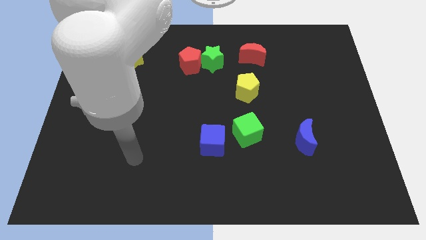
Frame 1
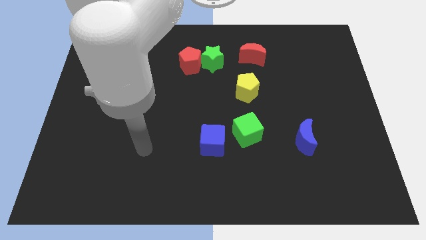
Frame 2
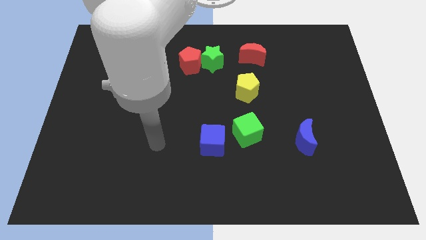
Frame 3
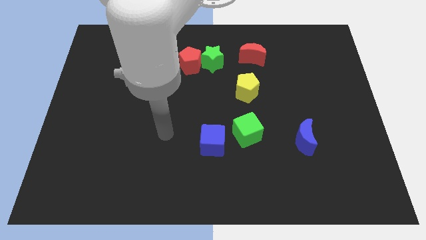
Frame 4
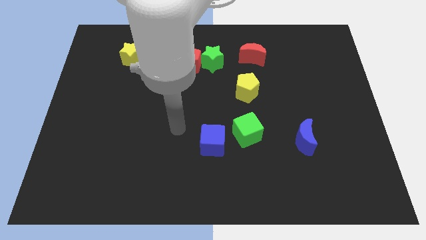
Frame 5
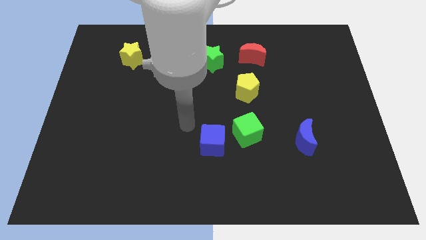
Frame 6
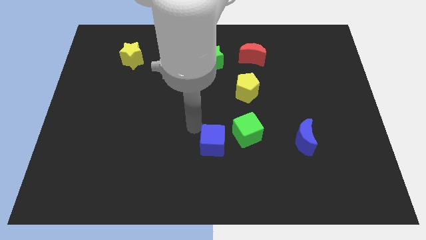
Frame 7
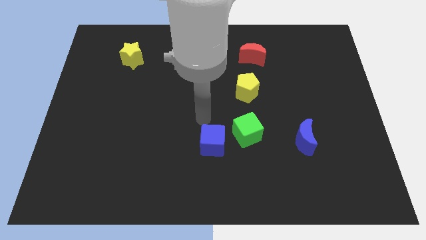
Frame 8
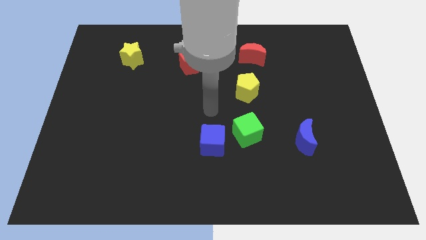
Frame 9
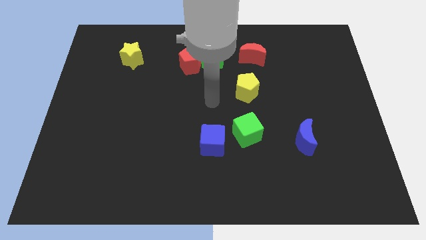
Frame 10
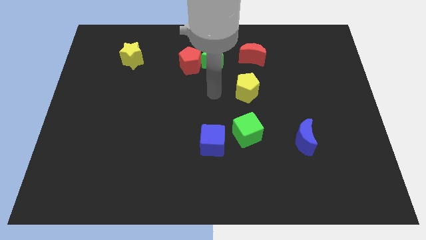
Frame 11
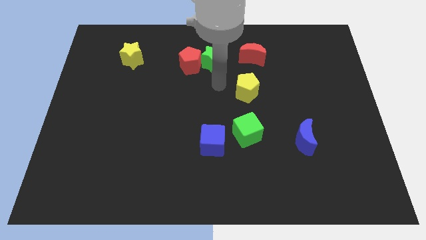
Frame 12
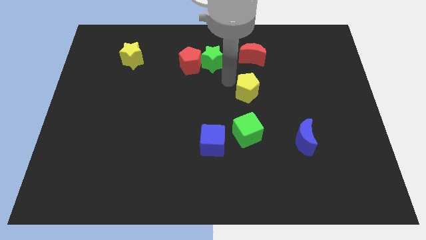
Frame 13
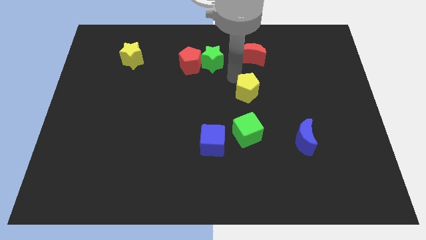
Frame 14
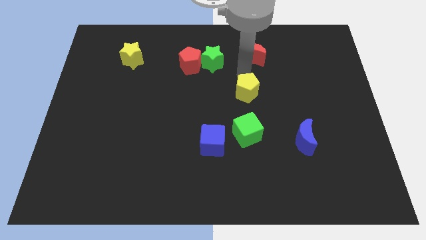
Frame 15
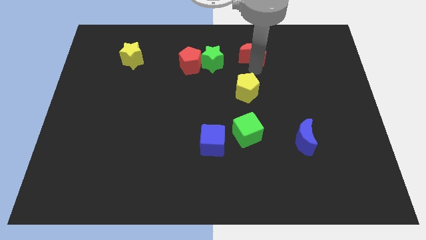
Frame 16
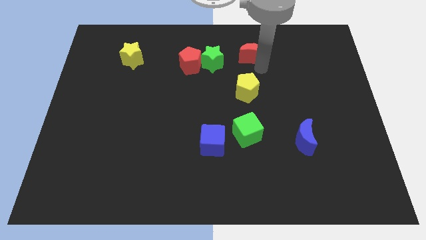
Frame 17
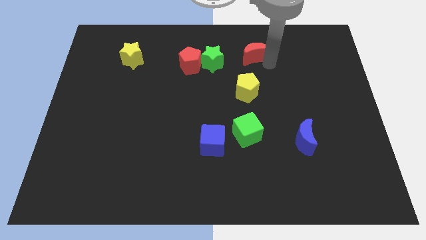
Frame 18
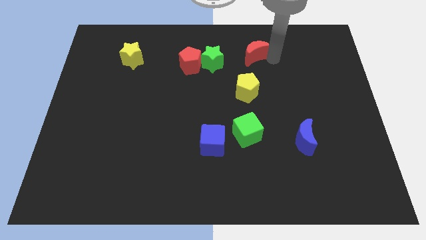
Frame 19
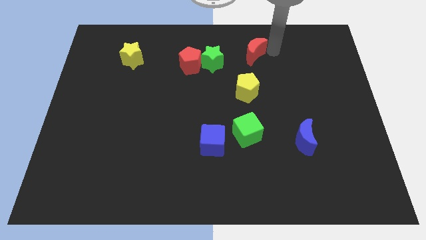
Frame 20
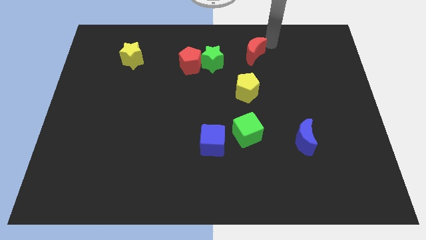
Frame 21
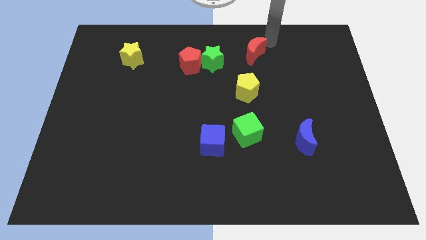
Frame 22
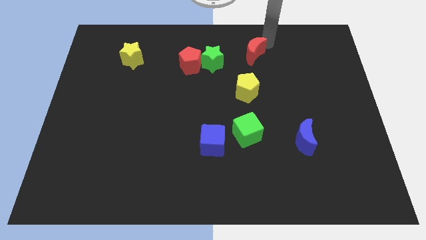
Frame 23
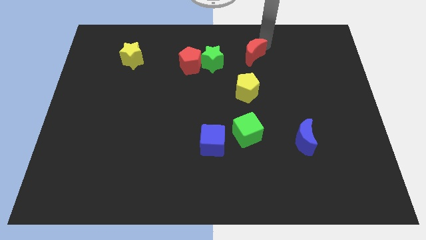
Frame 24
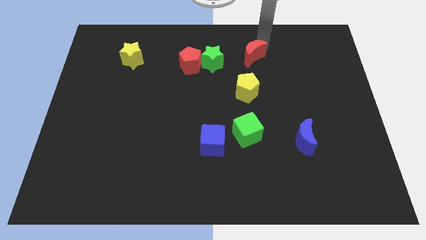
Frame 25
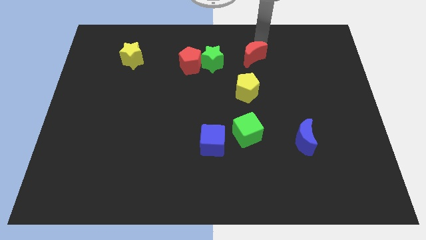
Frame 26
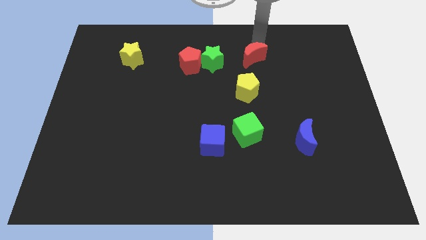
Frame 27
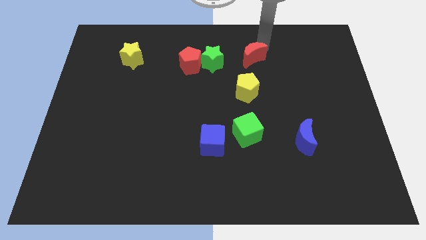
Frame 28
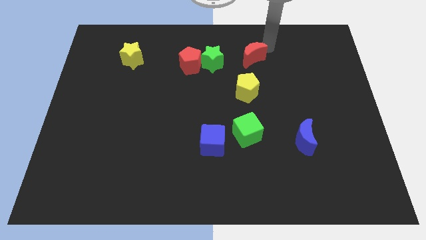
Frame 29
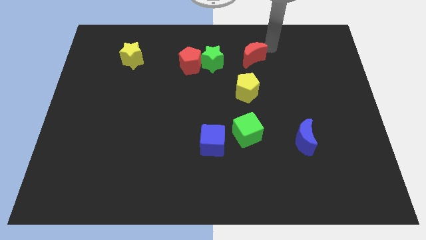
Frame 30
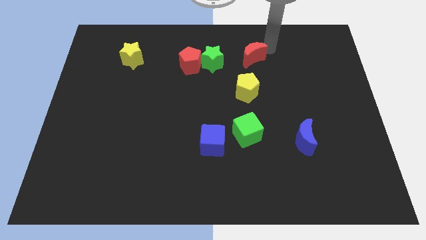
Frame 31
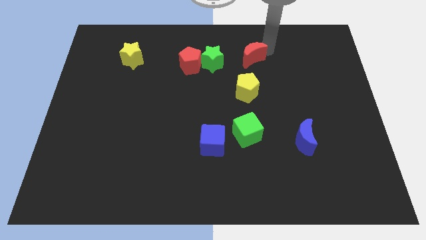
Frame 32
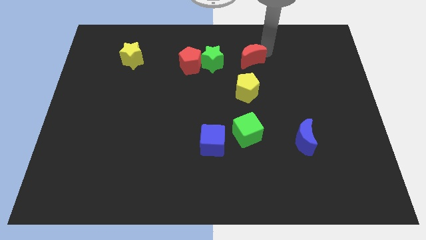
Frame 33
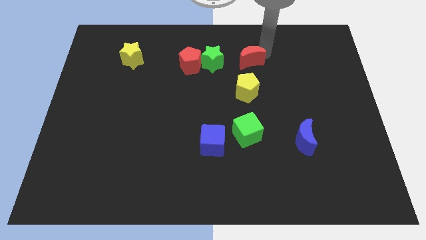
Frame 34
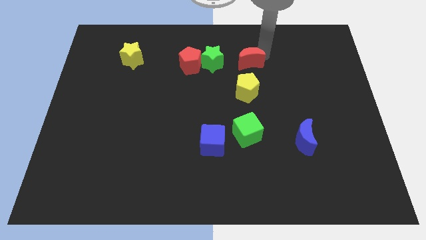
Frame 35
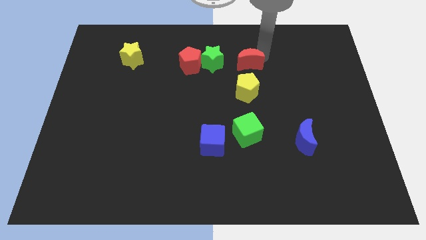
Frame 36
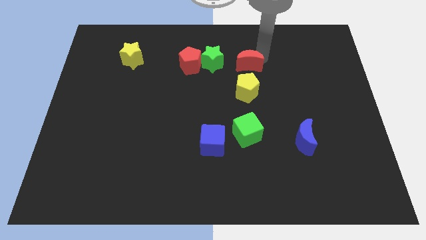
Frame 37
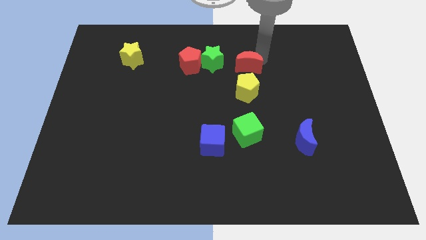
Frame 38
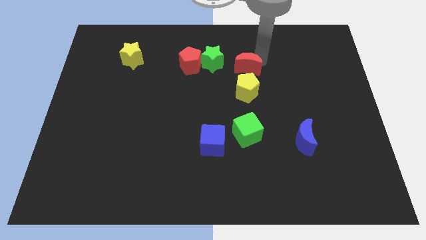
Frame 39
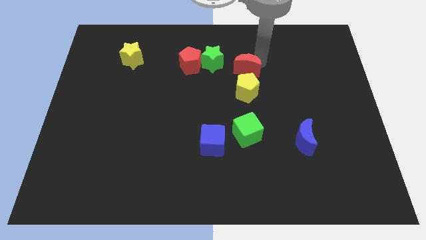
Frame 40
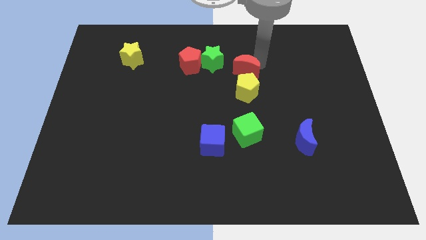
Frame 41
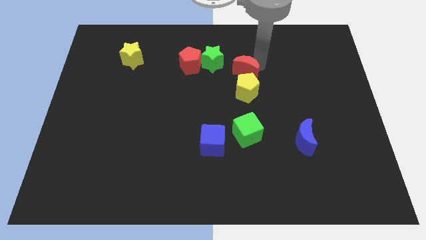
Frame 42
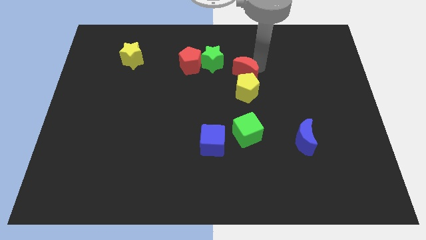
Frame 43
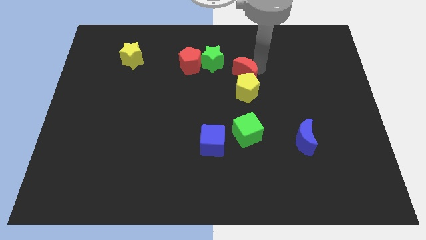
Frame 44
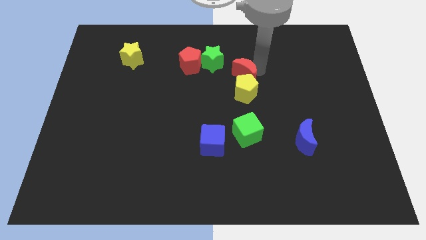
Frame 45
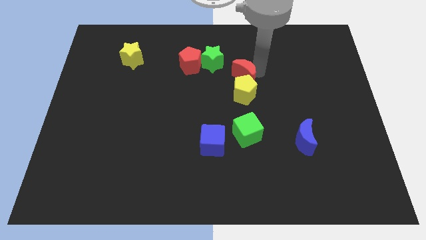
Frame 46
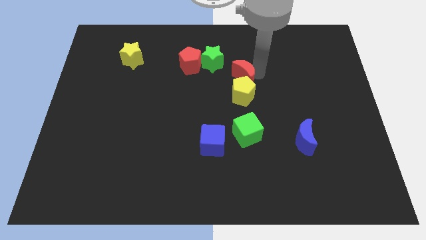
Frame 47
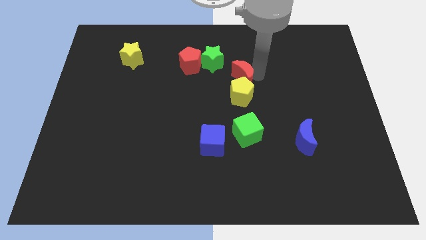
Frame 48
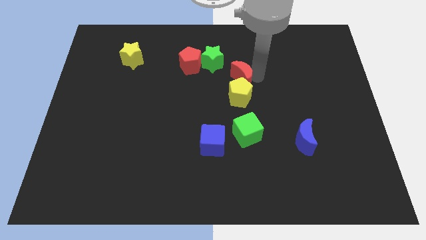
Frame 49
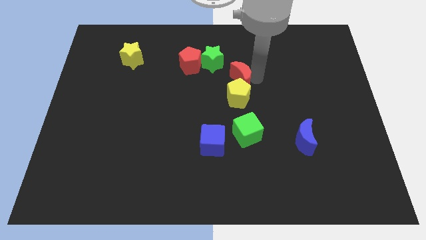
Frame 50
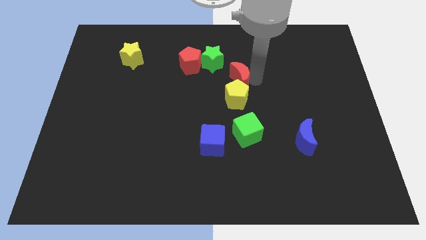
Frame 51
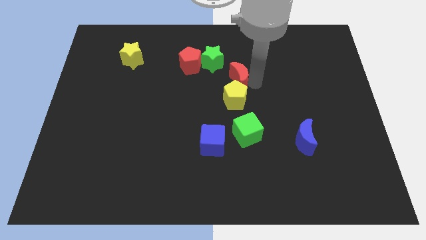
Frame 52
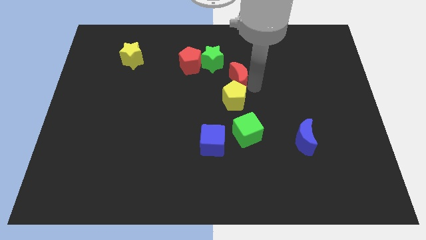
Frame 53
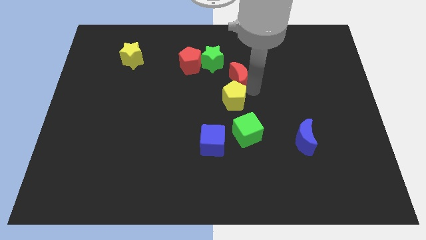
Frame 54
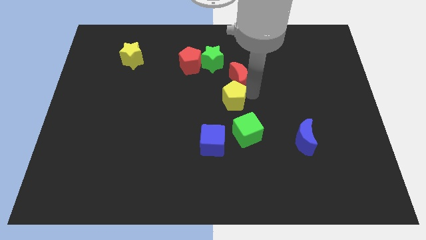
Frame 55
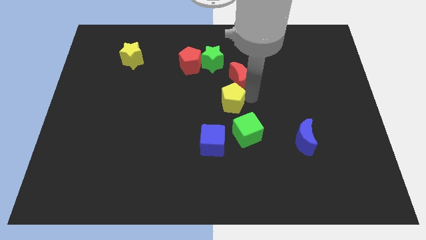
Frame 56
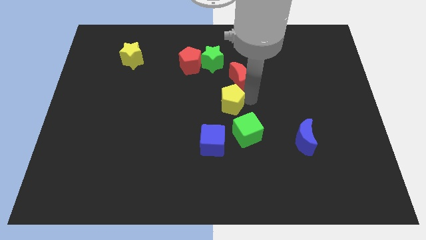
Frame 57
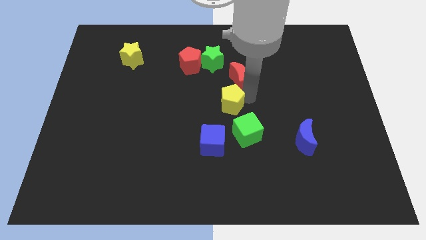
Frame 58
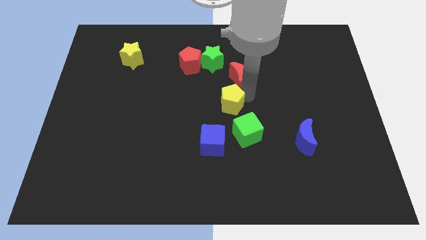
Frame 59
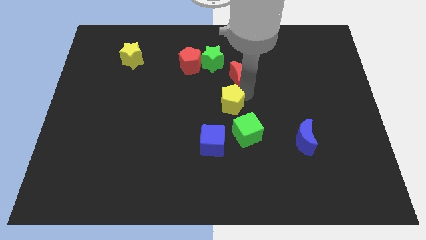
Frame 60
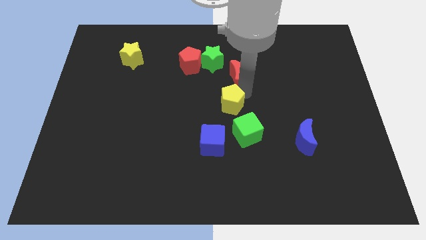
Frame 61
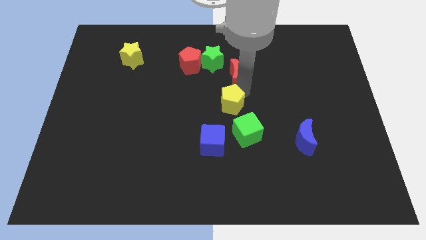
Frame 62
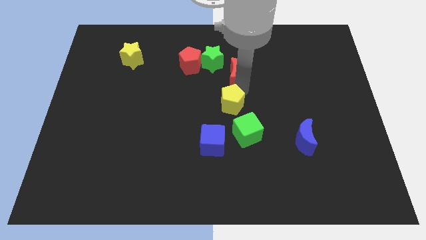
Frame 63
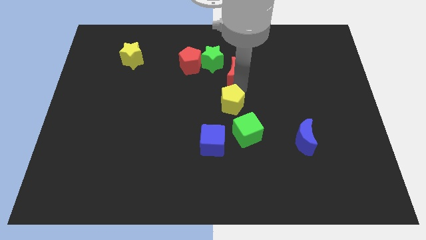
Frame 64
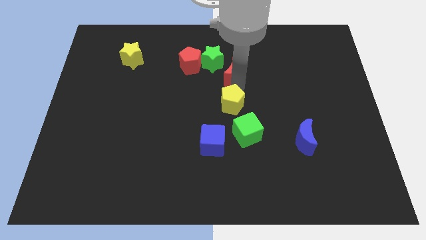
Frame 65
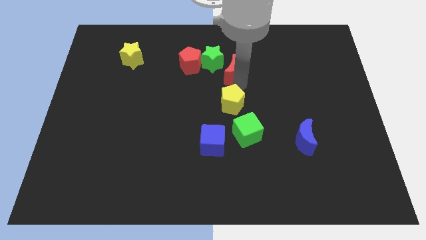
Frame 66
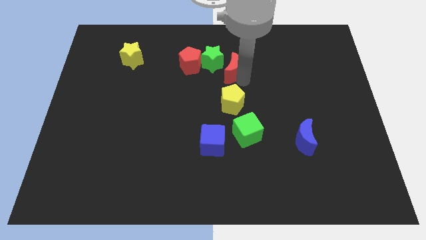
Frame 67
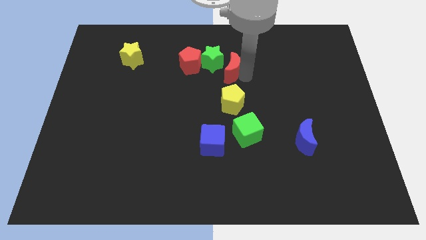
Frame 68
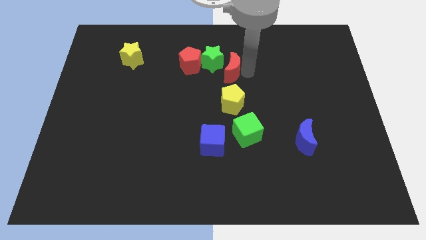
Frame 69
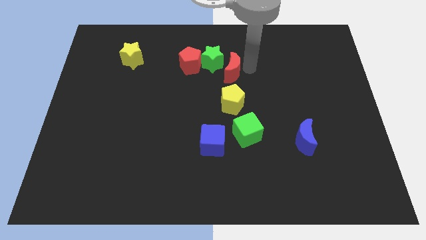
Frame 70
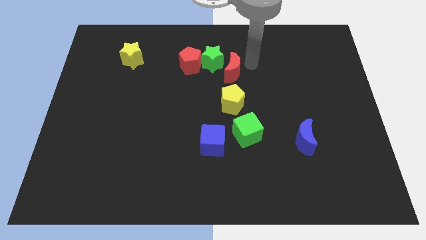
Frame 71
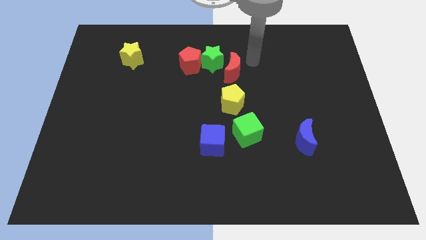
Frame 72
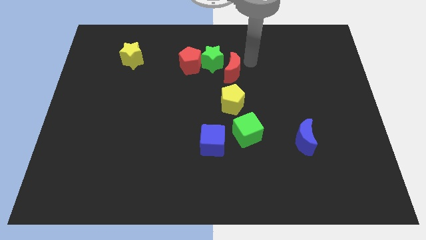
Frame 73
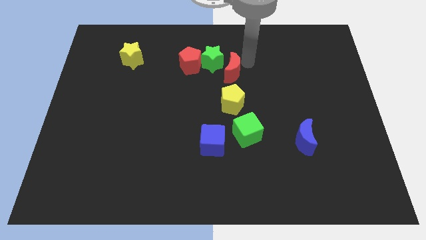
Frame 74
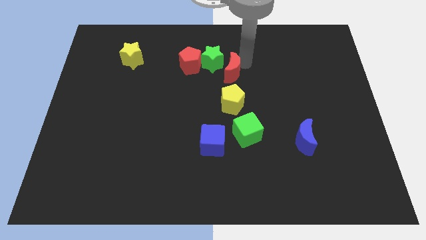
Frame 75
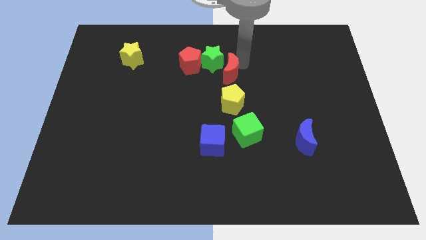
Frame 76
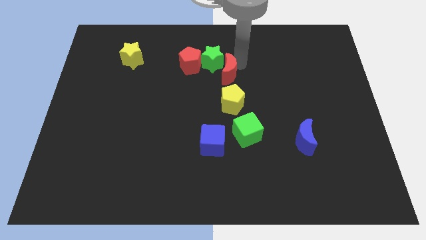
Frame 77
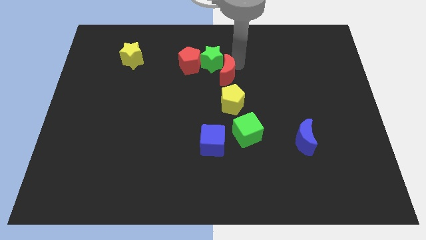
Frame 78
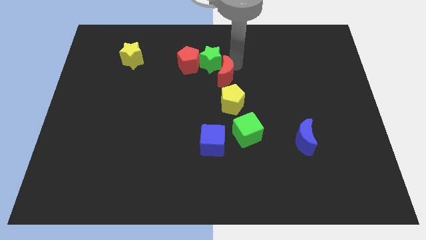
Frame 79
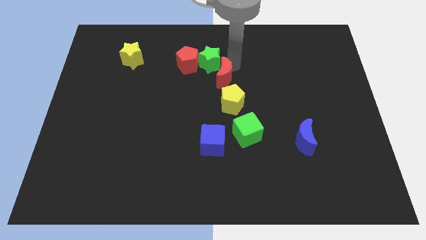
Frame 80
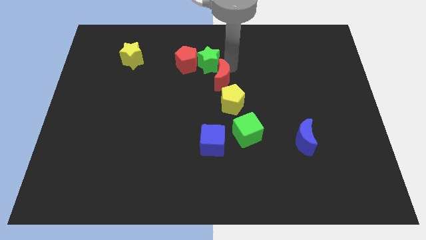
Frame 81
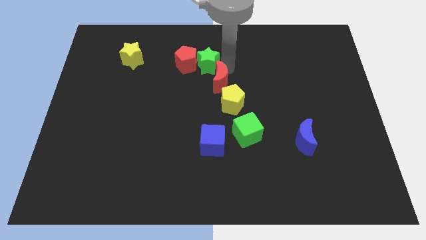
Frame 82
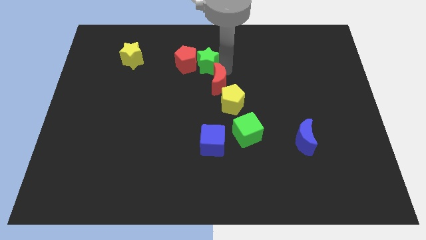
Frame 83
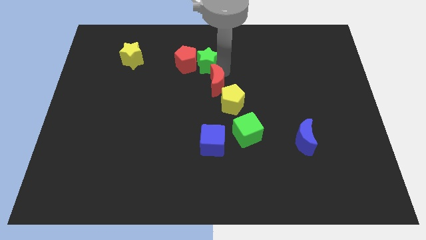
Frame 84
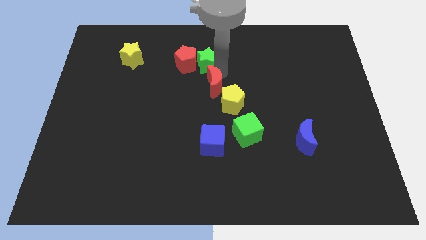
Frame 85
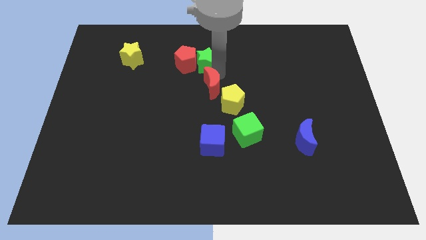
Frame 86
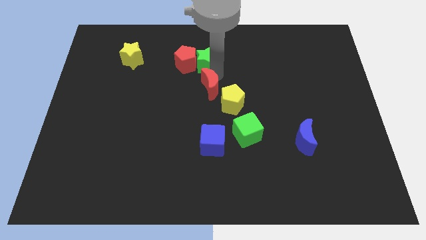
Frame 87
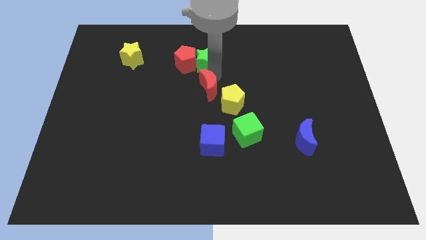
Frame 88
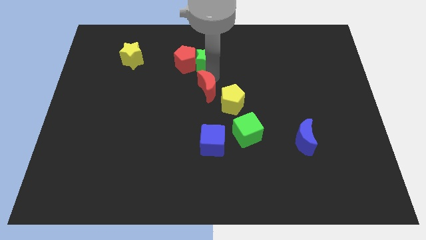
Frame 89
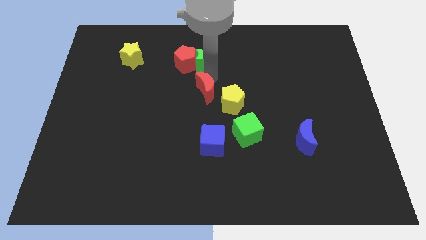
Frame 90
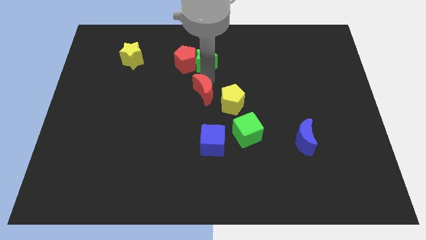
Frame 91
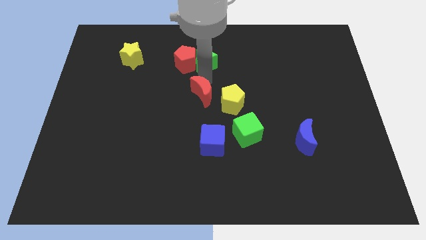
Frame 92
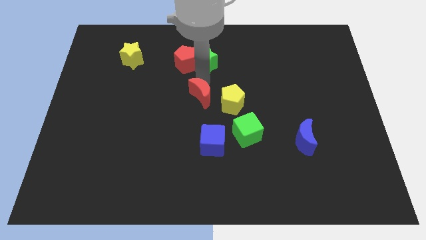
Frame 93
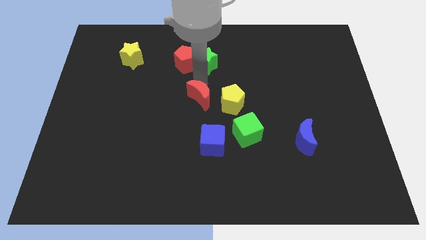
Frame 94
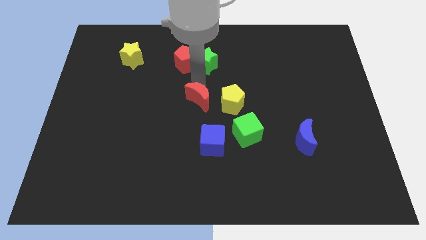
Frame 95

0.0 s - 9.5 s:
push the red moon diagonally down and left
